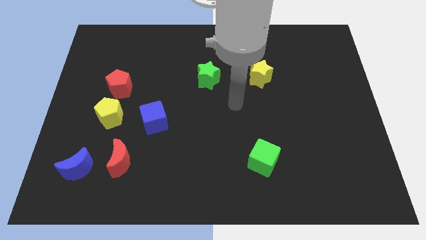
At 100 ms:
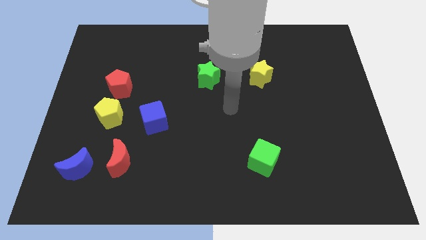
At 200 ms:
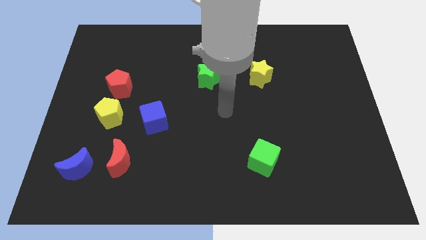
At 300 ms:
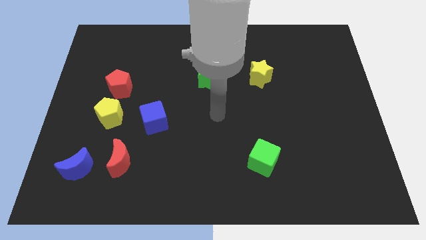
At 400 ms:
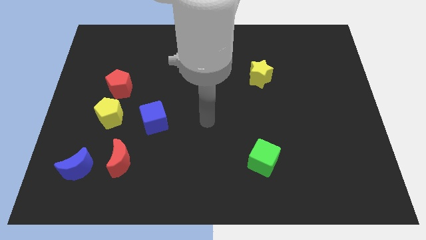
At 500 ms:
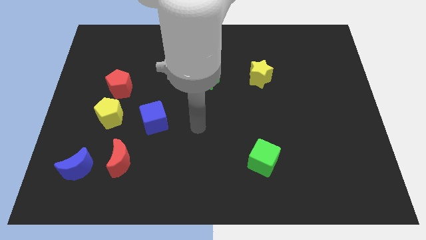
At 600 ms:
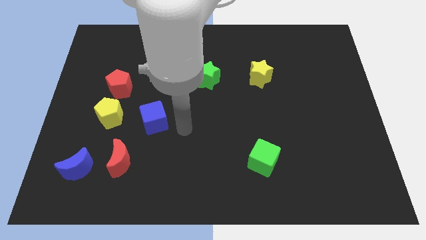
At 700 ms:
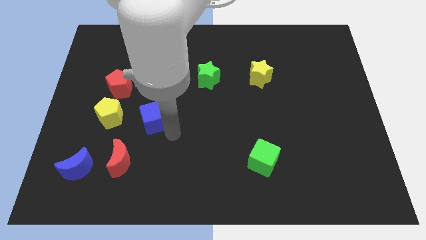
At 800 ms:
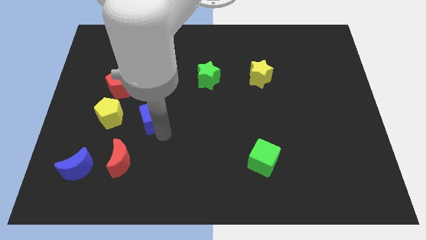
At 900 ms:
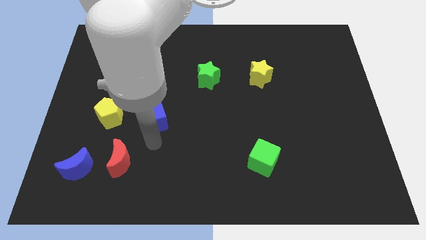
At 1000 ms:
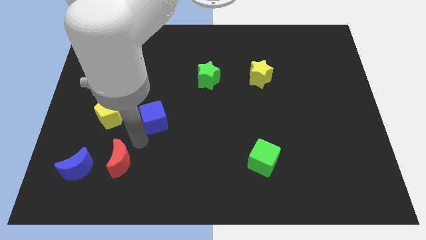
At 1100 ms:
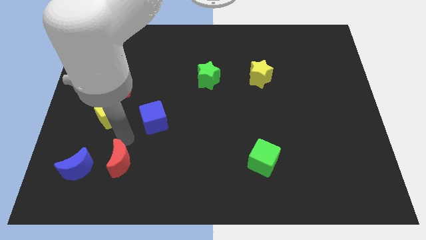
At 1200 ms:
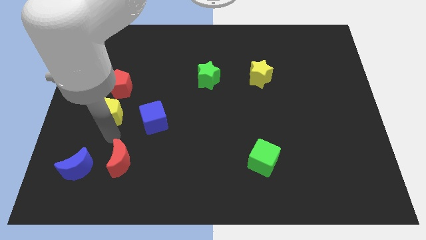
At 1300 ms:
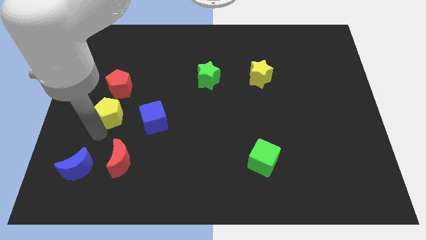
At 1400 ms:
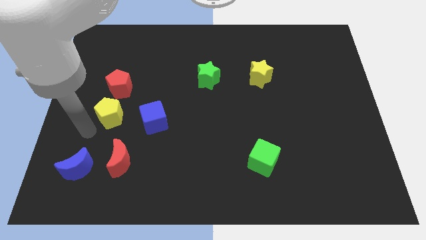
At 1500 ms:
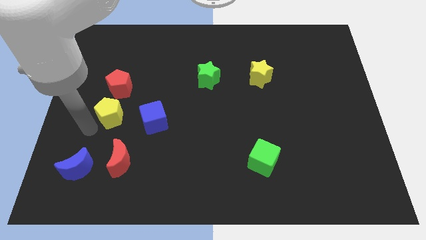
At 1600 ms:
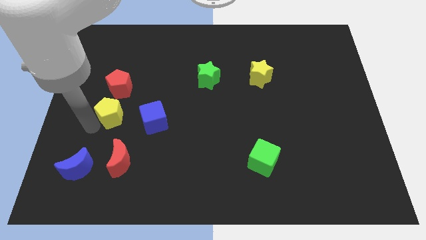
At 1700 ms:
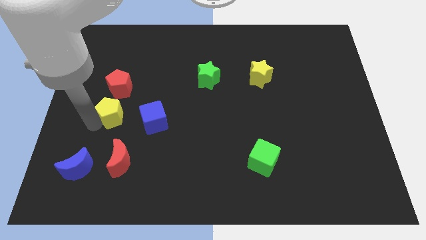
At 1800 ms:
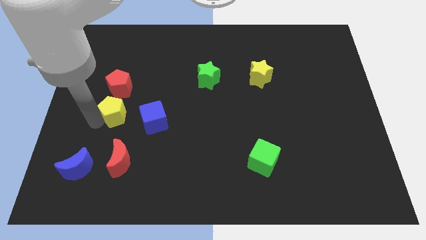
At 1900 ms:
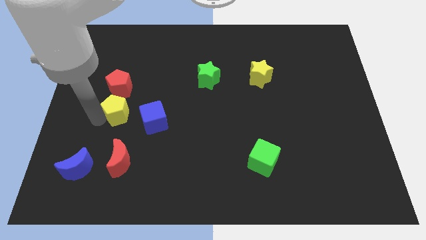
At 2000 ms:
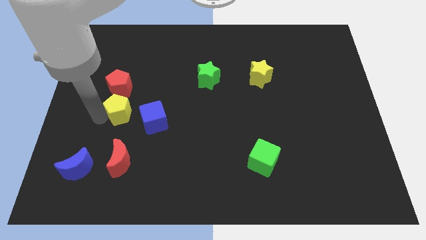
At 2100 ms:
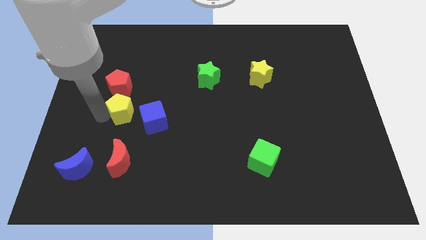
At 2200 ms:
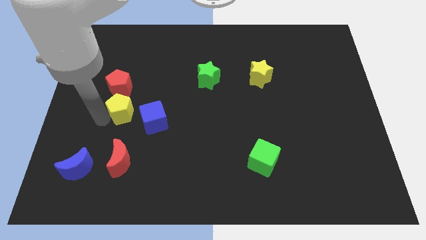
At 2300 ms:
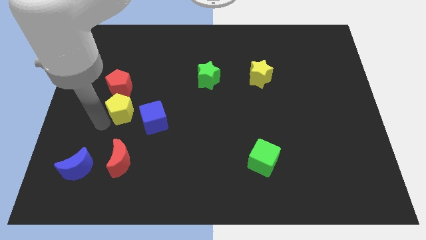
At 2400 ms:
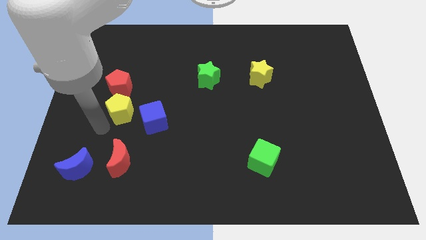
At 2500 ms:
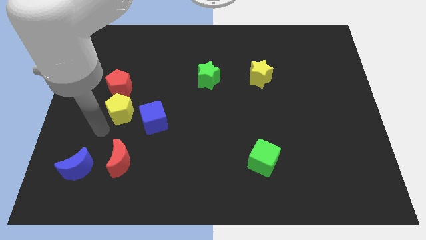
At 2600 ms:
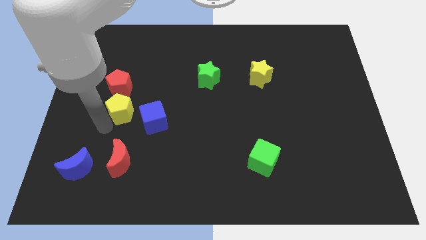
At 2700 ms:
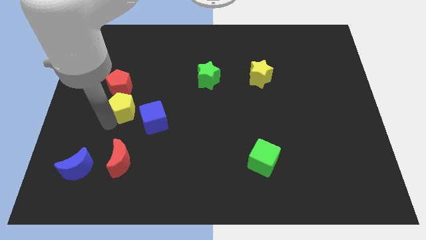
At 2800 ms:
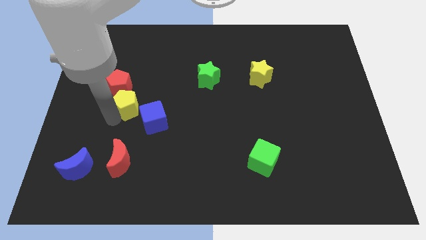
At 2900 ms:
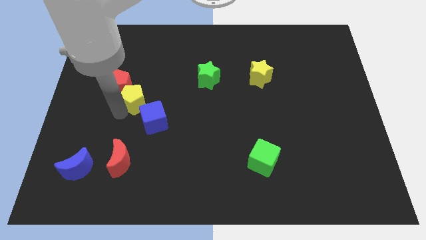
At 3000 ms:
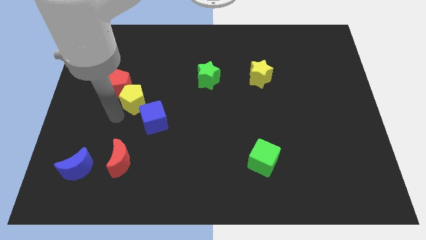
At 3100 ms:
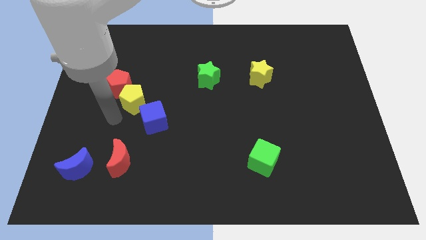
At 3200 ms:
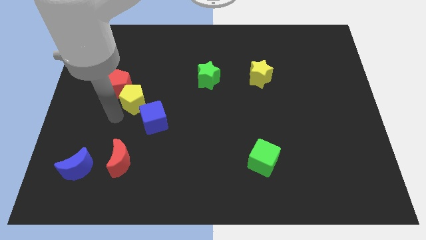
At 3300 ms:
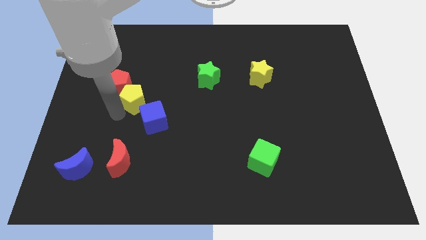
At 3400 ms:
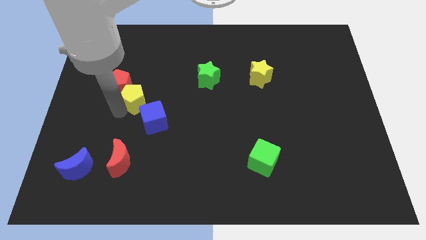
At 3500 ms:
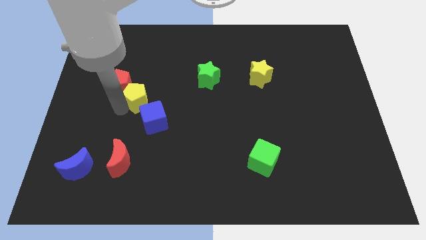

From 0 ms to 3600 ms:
move the yellow pentagon somewhat upwards and to the right

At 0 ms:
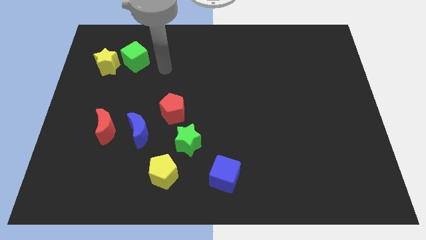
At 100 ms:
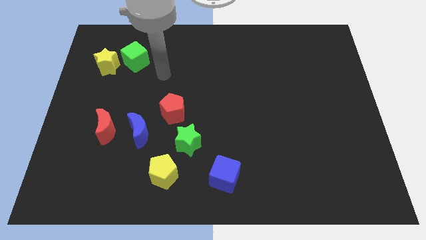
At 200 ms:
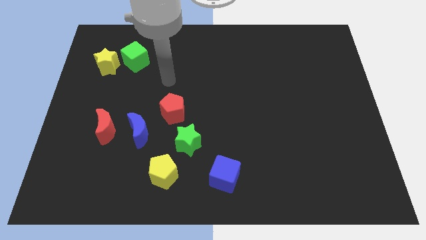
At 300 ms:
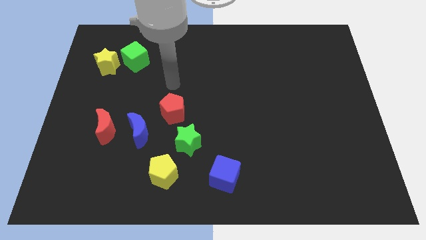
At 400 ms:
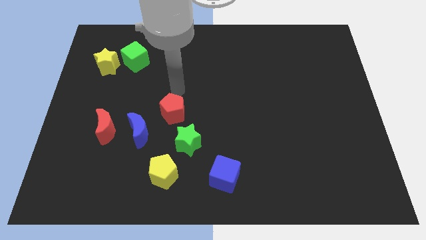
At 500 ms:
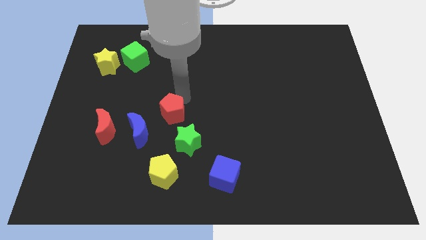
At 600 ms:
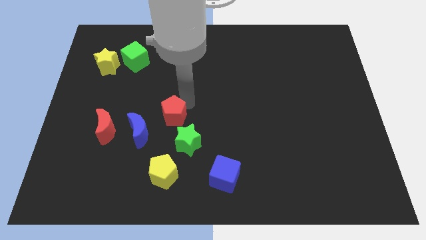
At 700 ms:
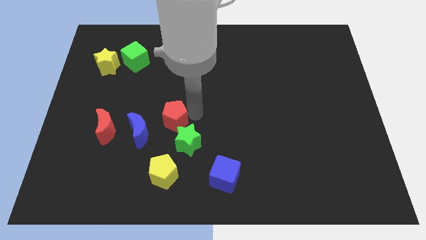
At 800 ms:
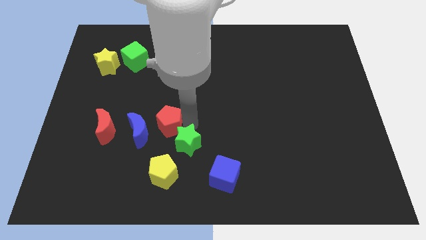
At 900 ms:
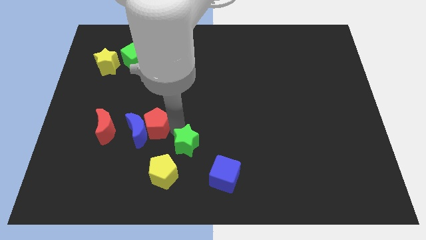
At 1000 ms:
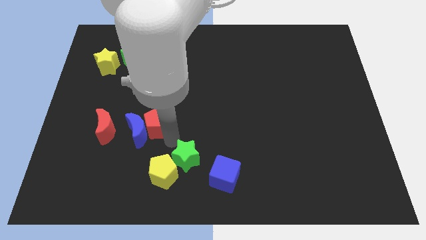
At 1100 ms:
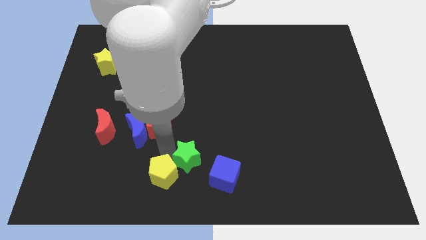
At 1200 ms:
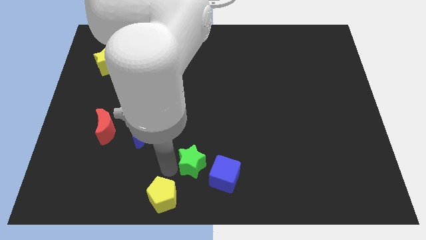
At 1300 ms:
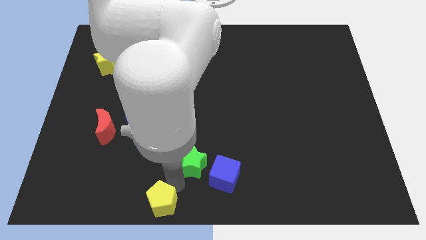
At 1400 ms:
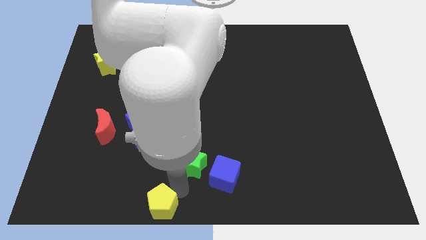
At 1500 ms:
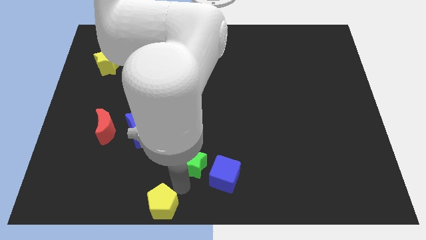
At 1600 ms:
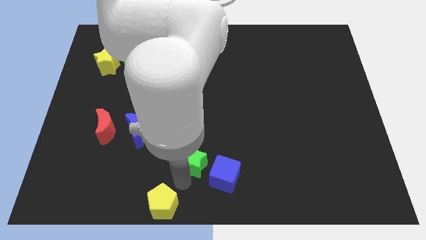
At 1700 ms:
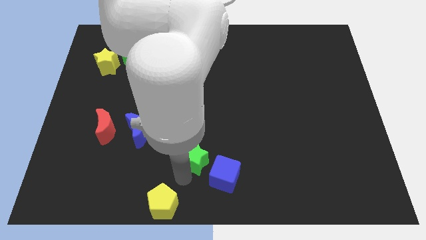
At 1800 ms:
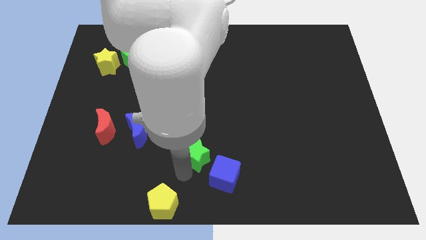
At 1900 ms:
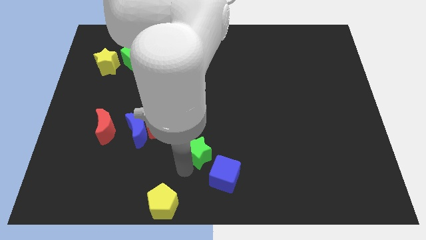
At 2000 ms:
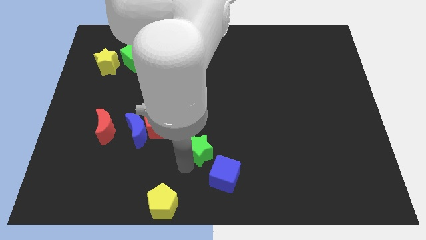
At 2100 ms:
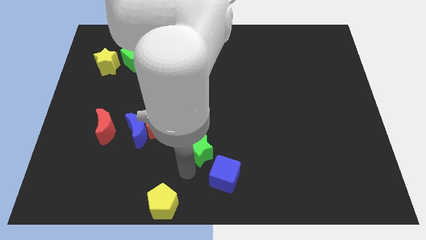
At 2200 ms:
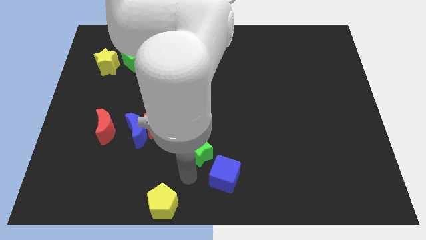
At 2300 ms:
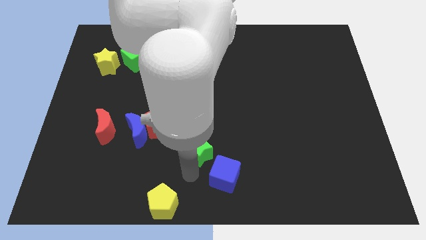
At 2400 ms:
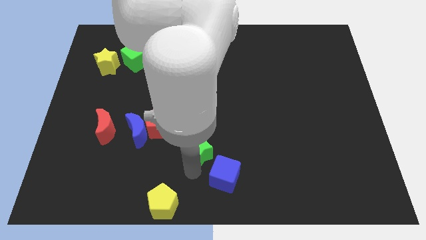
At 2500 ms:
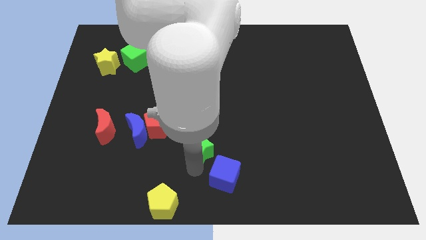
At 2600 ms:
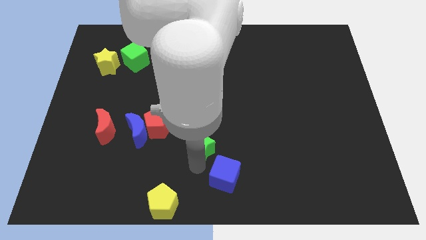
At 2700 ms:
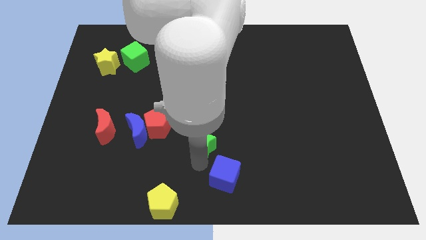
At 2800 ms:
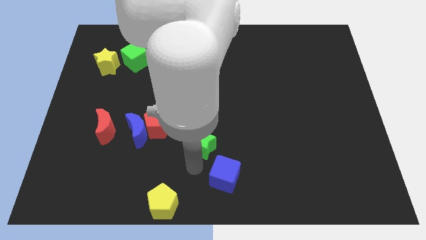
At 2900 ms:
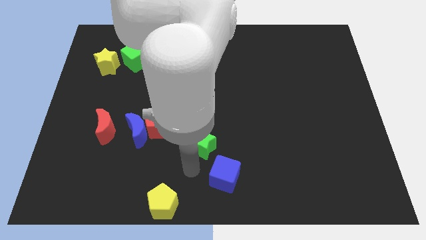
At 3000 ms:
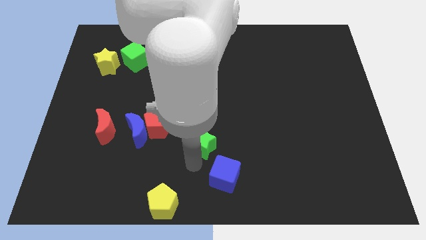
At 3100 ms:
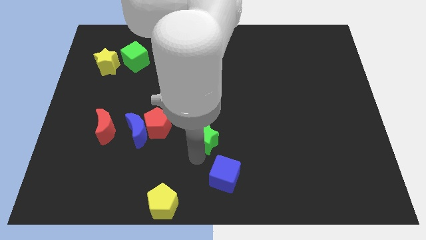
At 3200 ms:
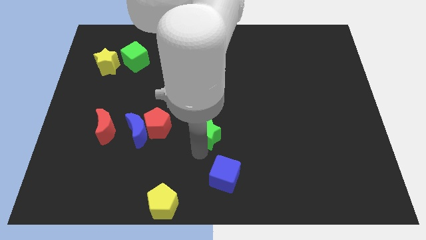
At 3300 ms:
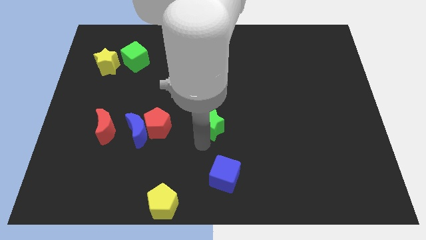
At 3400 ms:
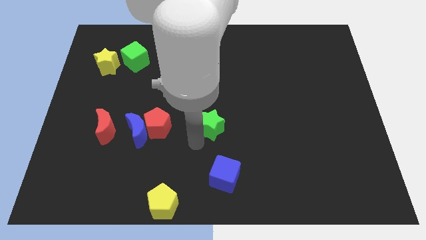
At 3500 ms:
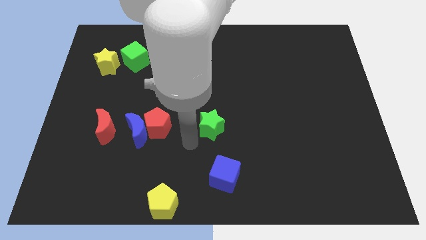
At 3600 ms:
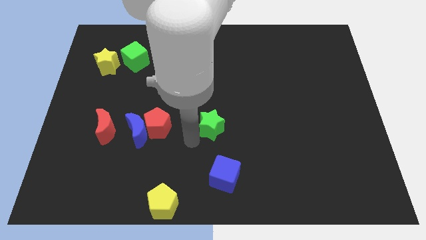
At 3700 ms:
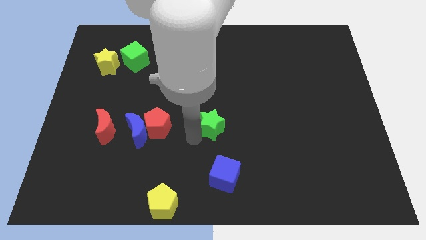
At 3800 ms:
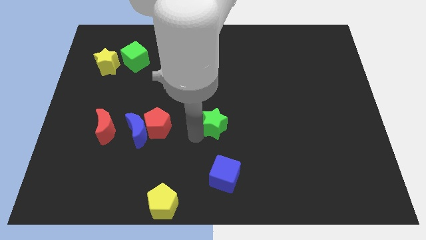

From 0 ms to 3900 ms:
push the green star diagonally upwards and right somewhat

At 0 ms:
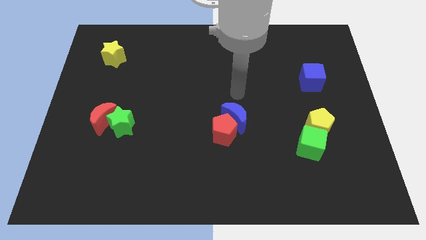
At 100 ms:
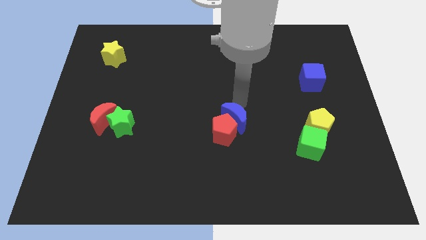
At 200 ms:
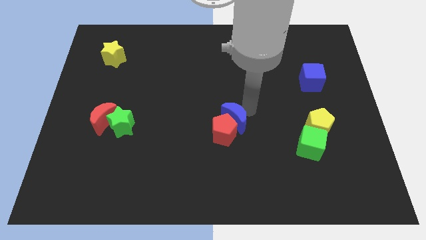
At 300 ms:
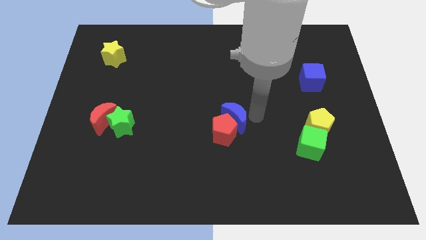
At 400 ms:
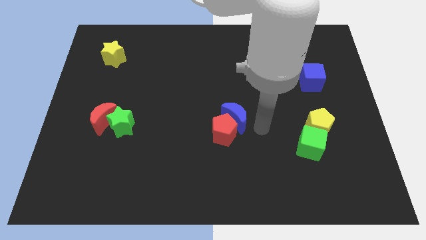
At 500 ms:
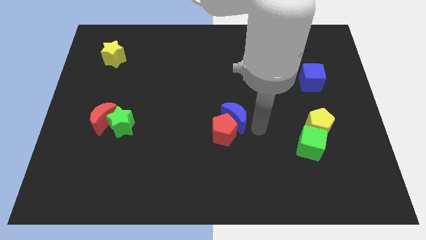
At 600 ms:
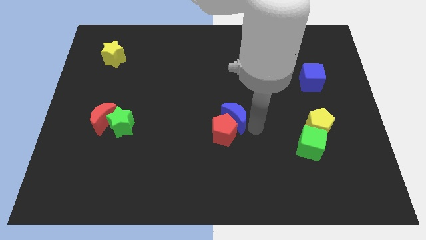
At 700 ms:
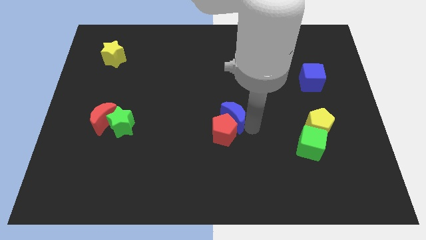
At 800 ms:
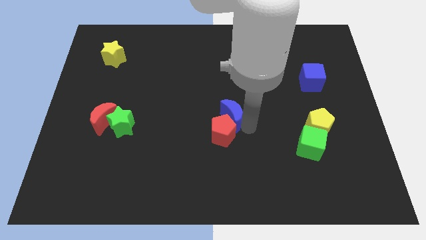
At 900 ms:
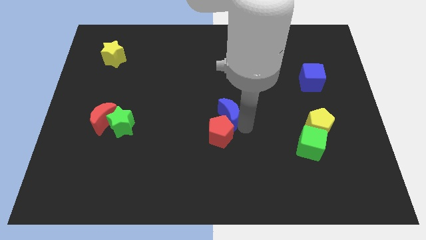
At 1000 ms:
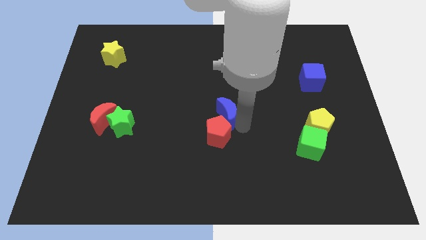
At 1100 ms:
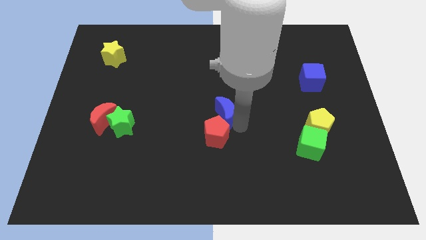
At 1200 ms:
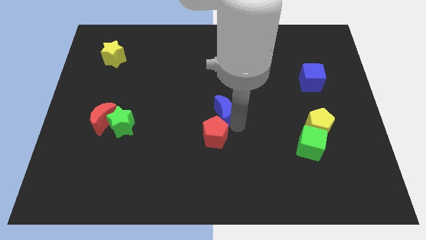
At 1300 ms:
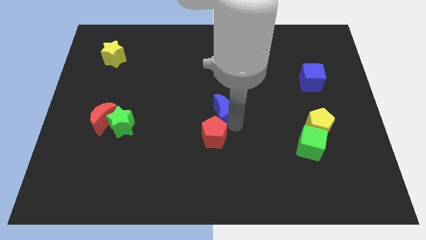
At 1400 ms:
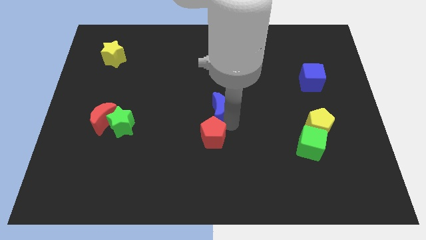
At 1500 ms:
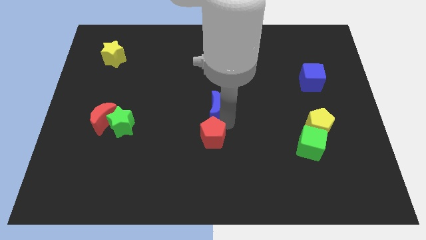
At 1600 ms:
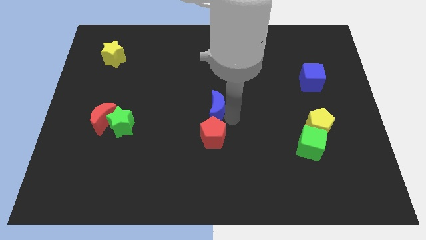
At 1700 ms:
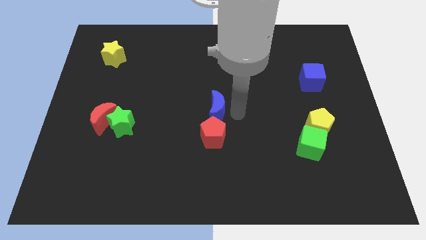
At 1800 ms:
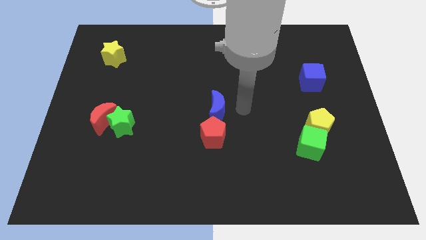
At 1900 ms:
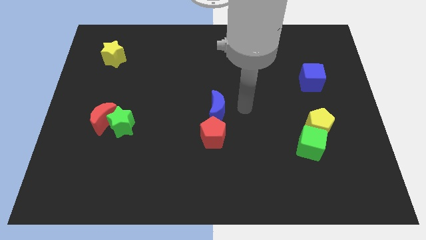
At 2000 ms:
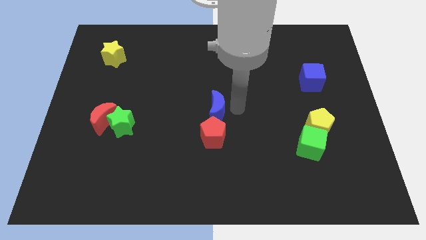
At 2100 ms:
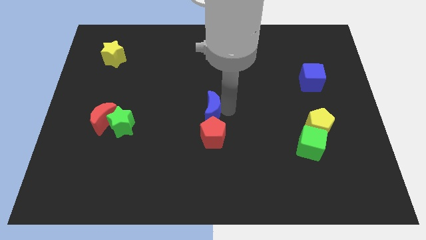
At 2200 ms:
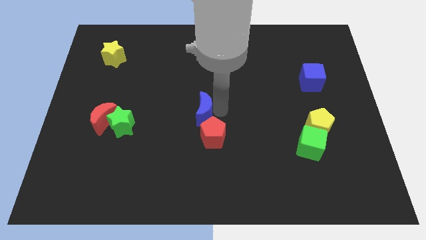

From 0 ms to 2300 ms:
slightly push the blue moon left
